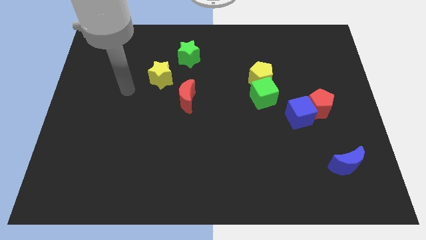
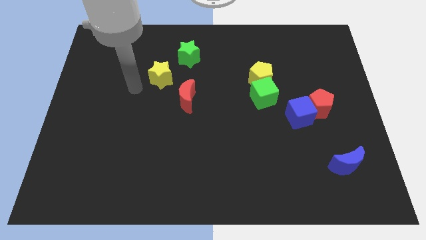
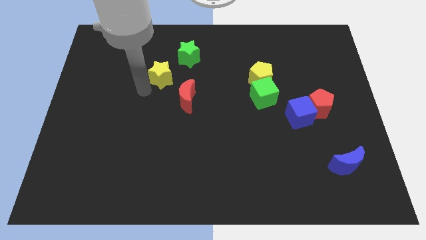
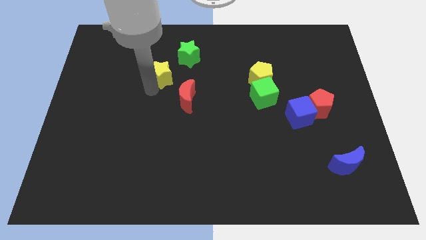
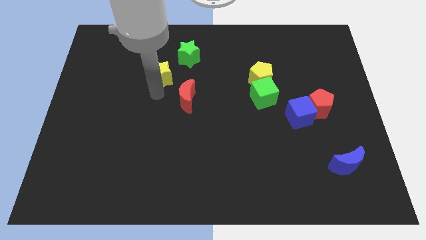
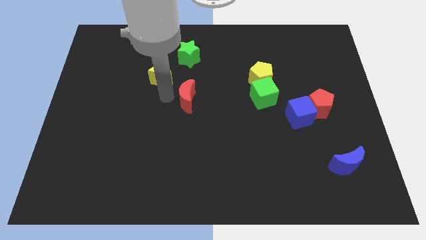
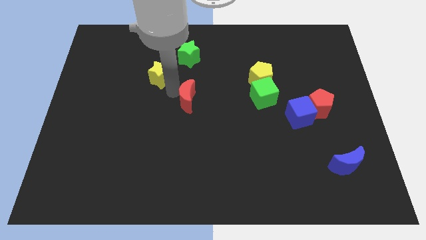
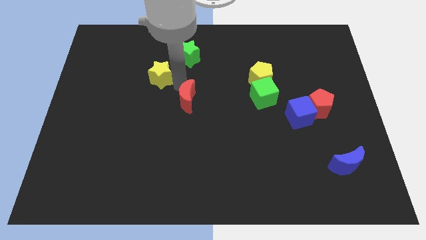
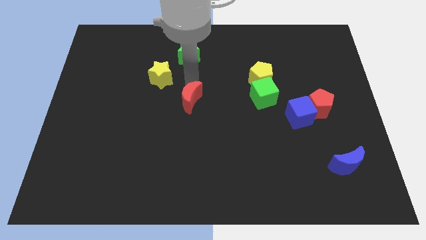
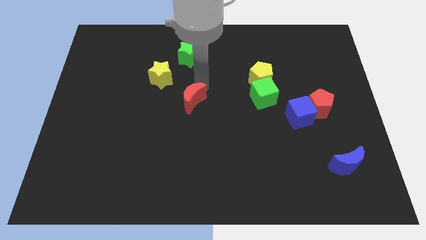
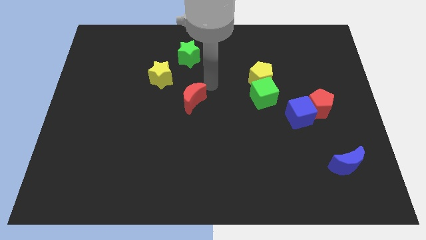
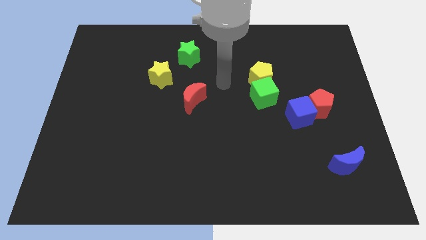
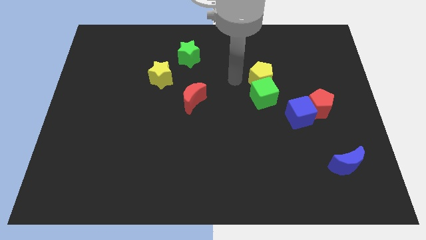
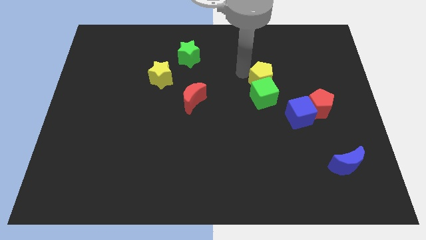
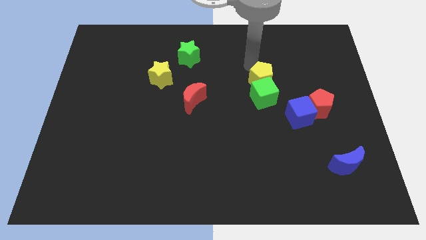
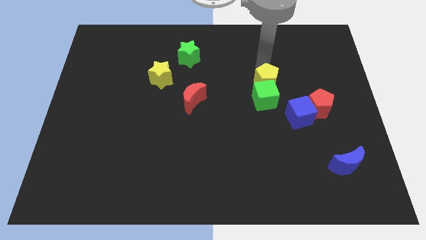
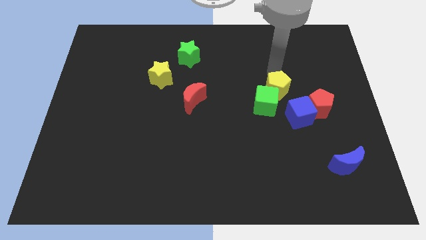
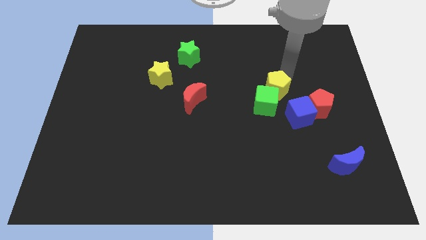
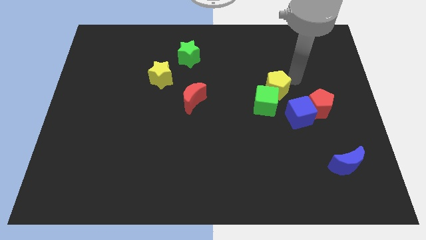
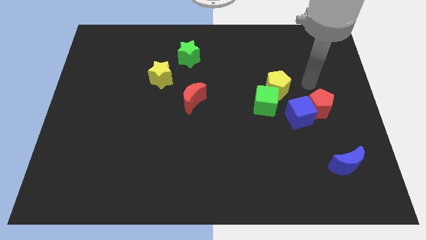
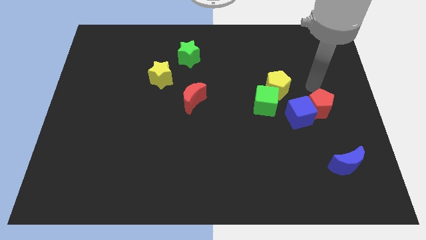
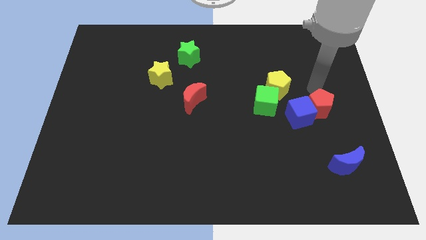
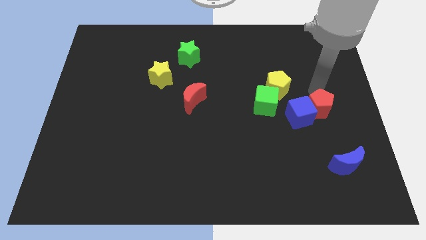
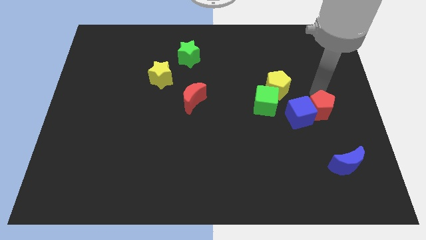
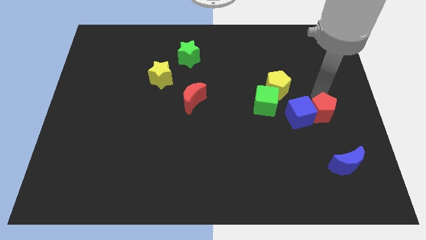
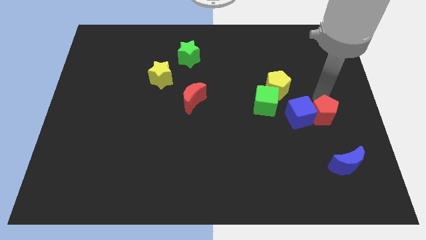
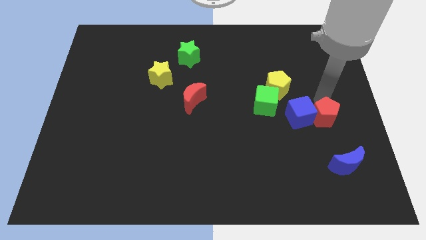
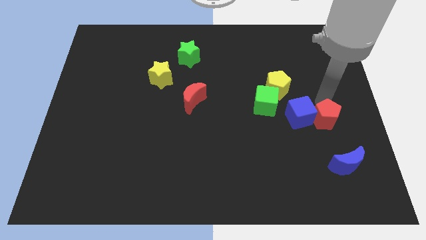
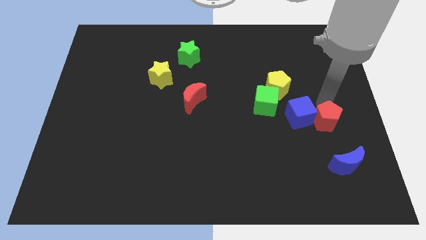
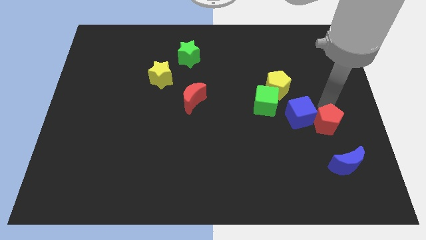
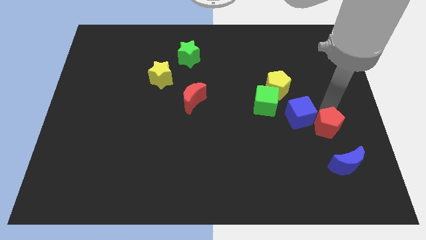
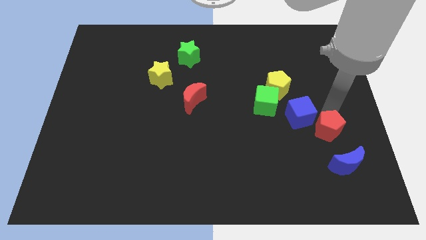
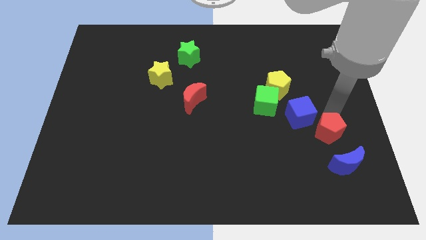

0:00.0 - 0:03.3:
move the red pentagon somewhat downwards

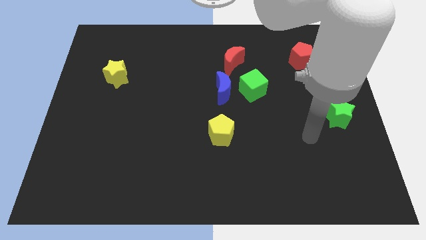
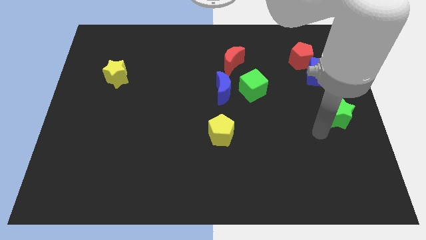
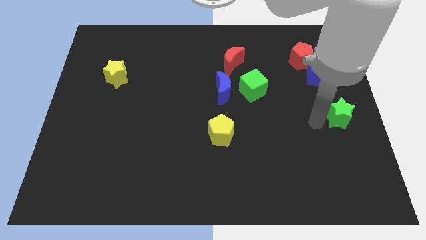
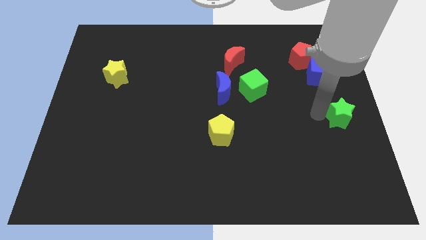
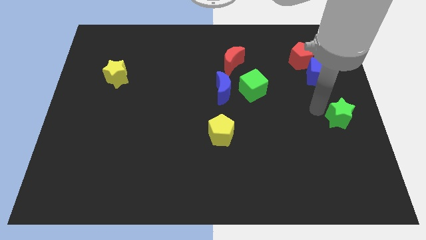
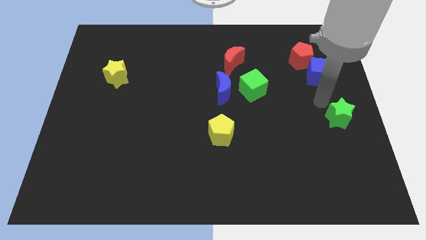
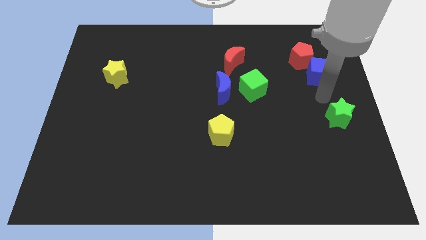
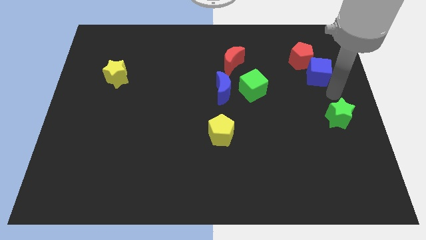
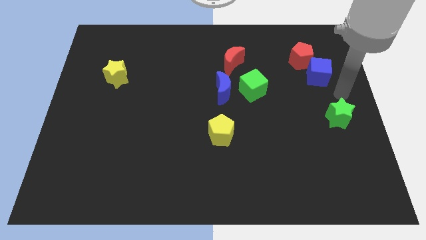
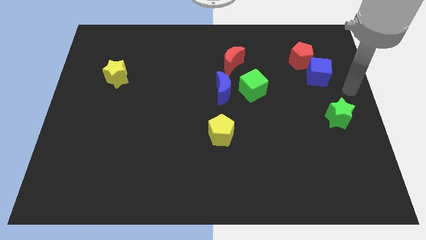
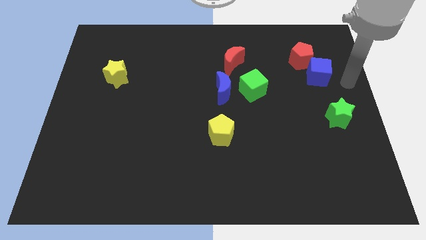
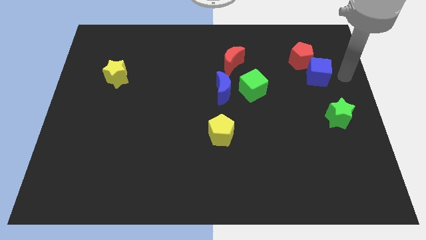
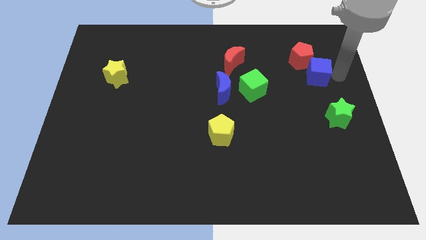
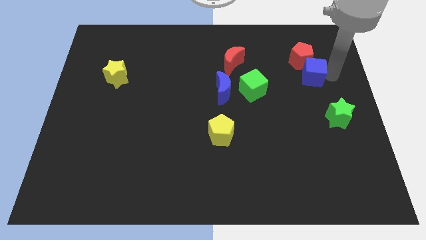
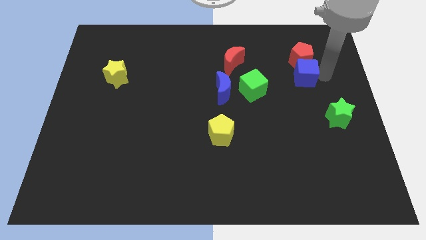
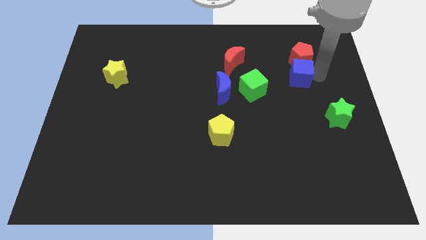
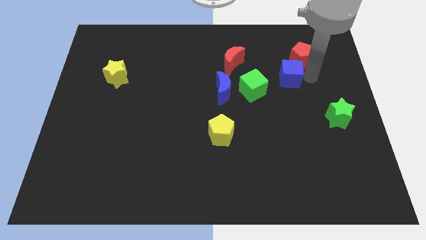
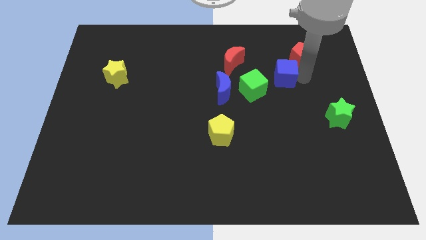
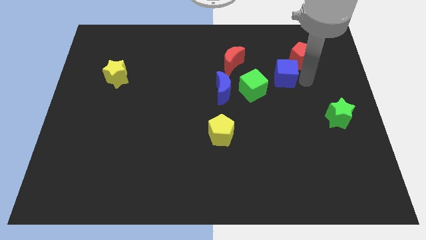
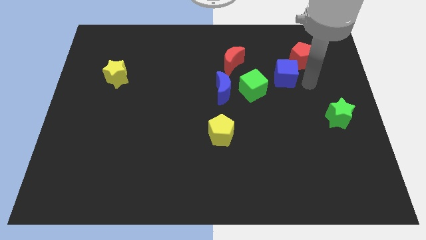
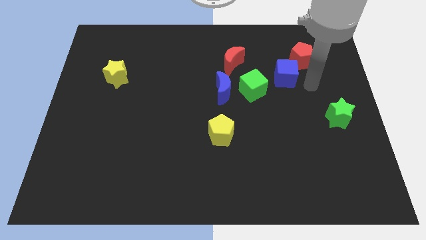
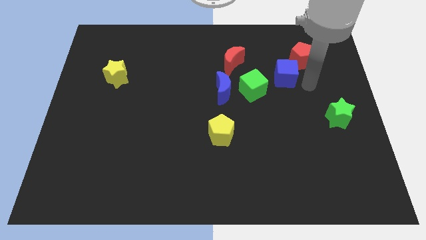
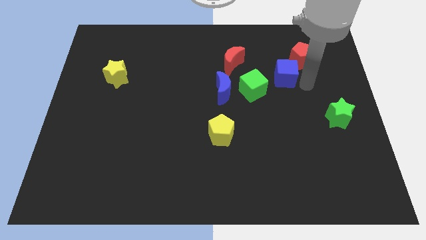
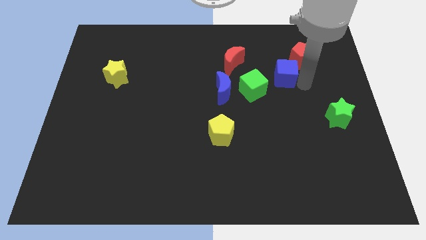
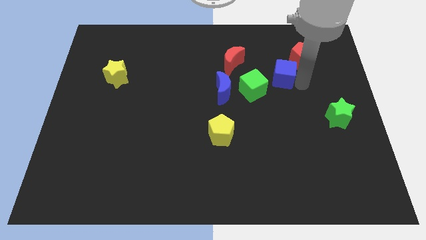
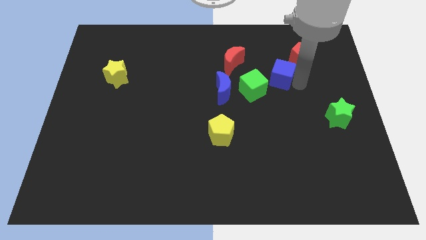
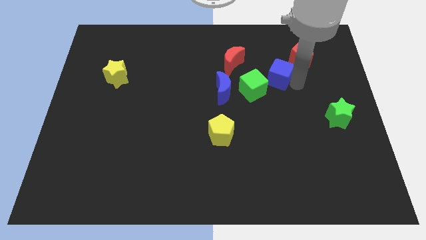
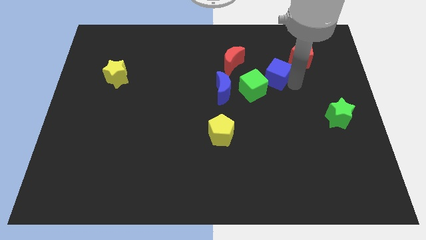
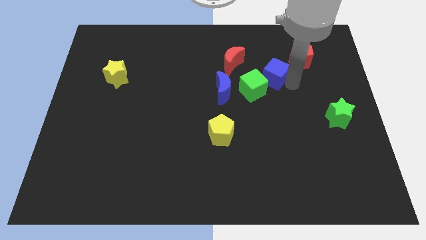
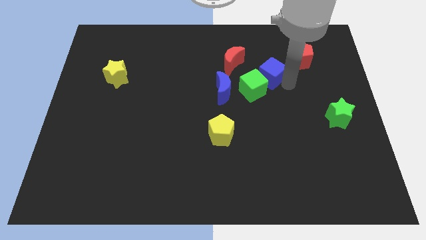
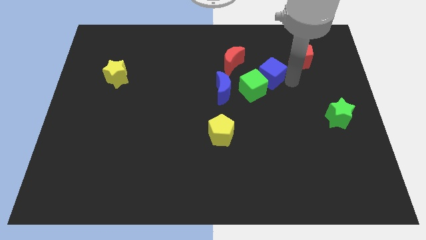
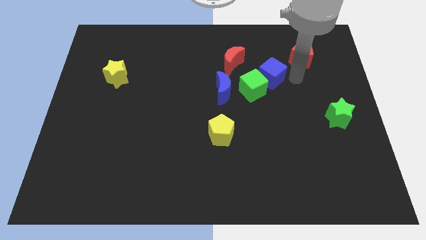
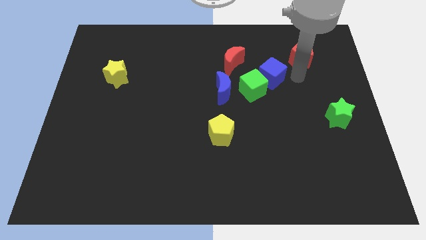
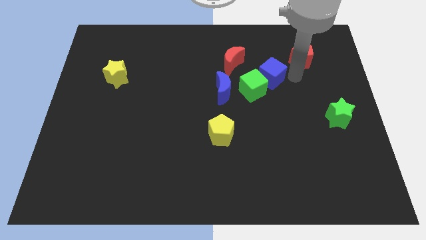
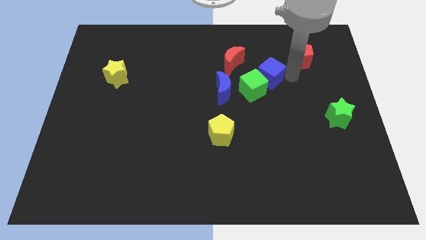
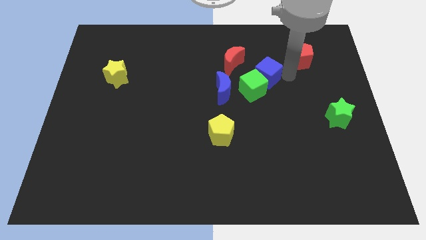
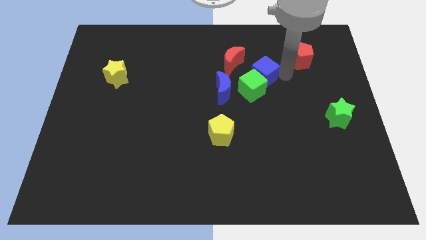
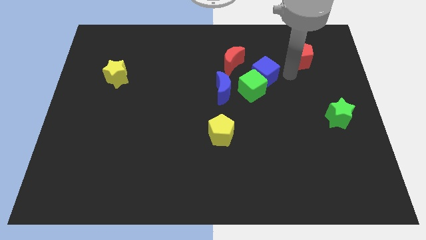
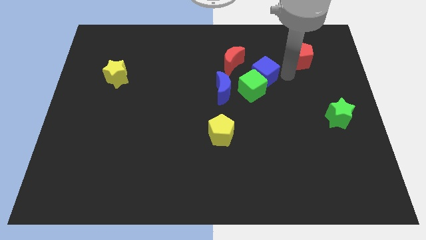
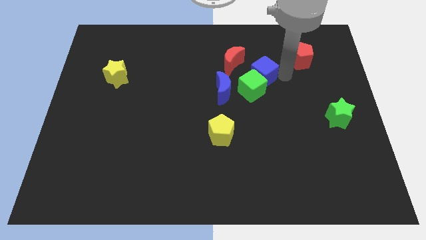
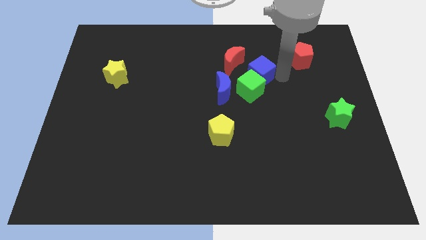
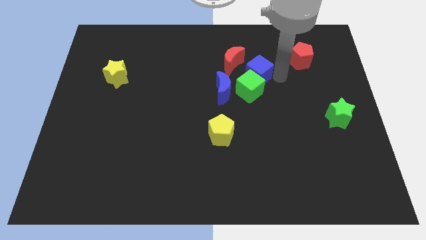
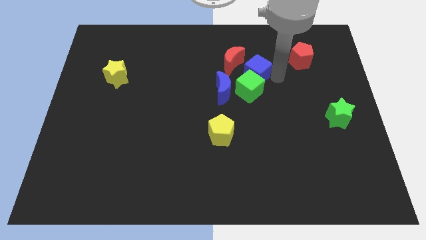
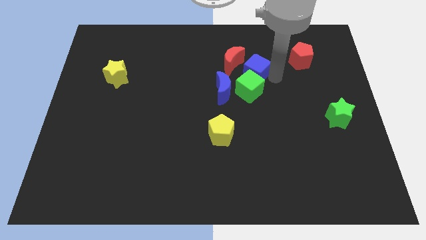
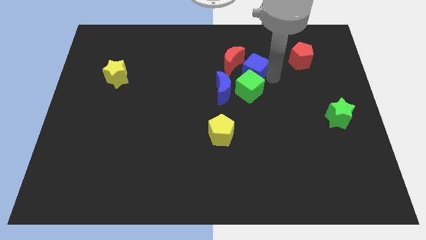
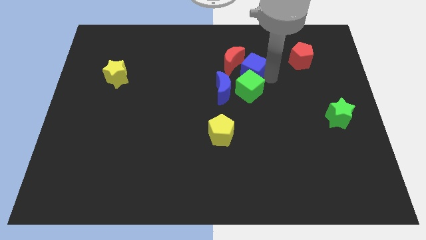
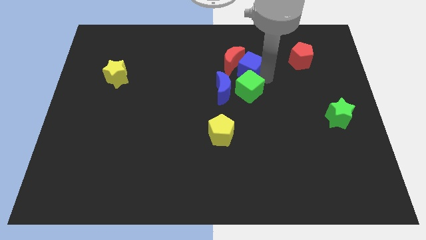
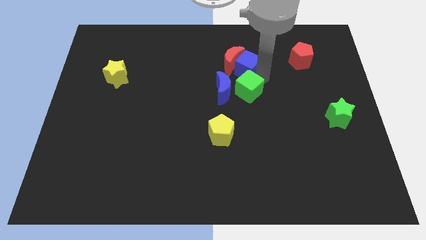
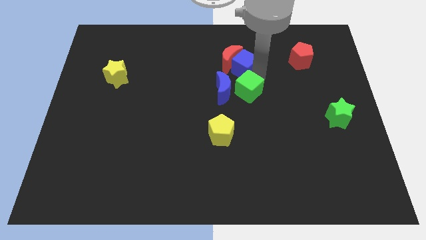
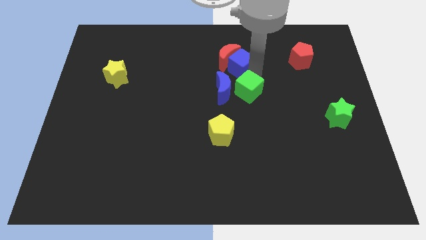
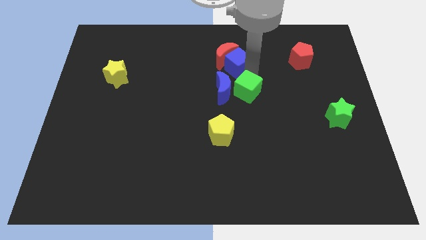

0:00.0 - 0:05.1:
slide the blue cube left
